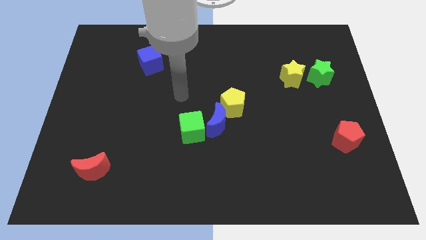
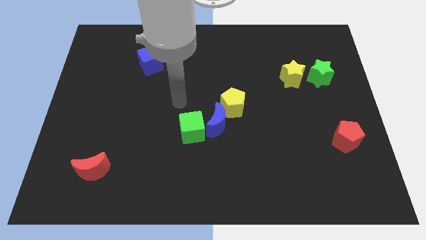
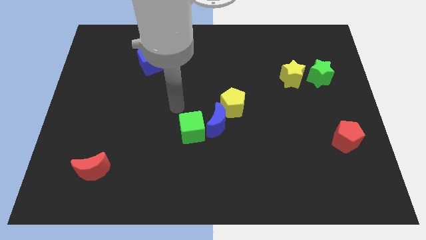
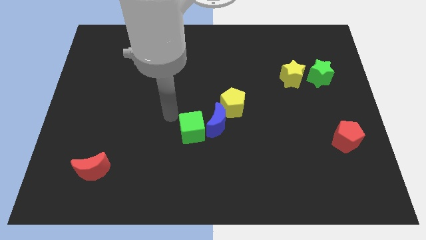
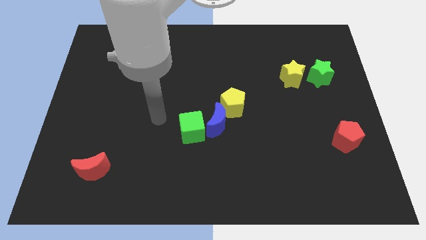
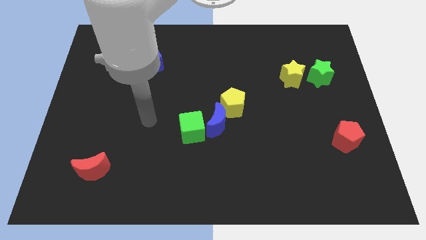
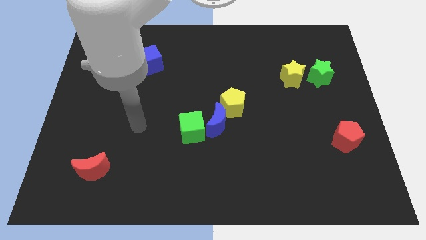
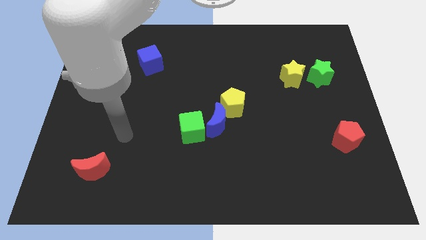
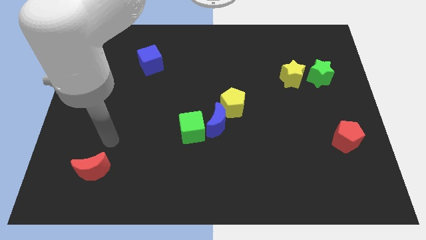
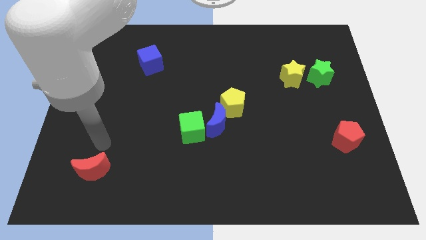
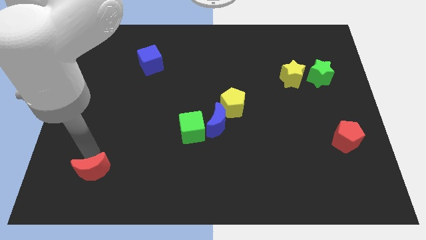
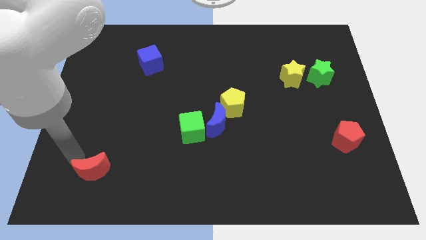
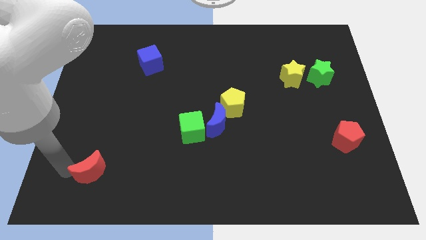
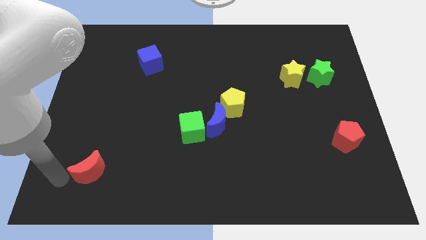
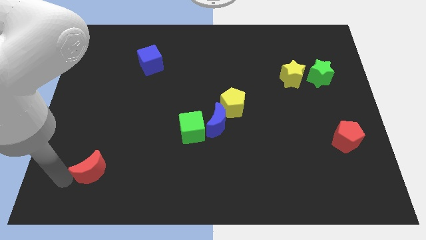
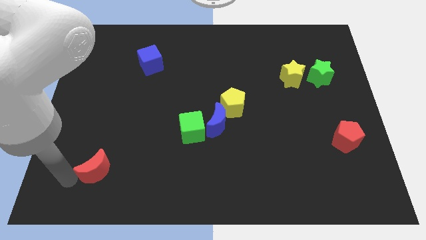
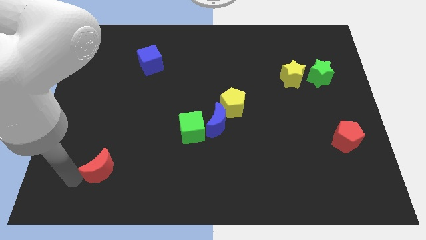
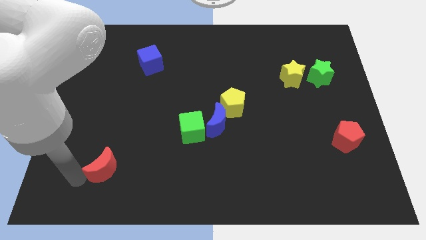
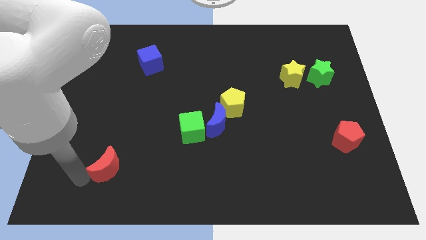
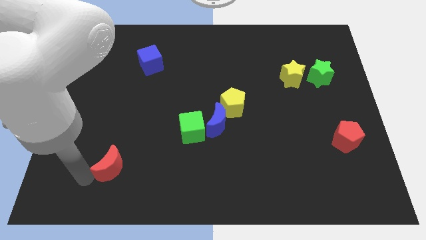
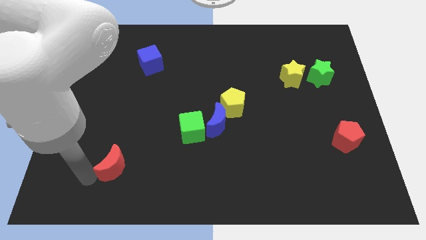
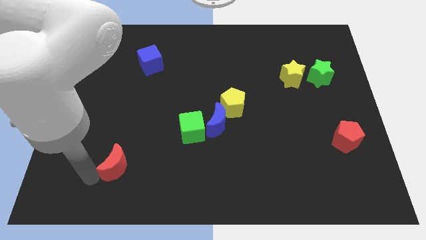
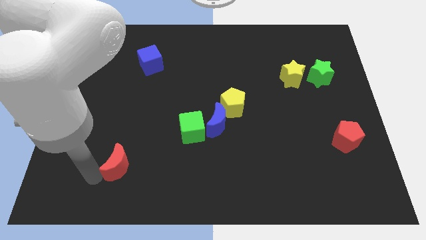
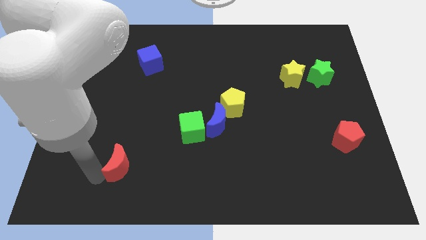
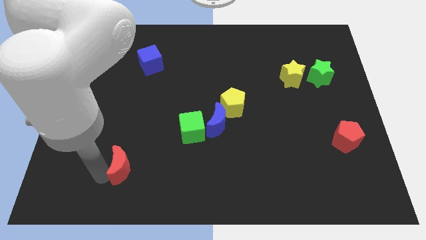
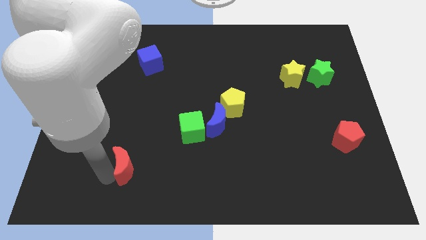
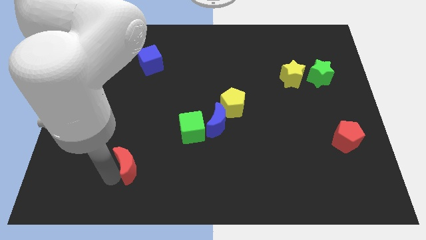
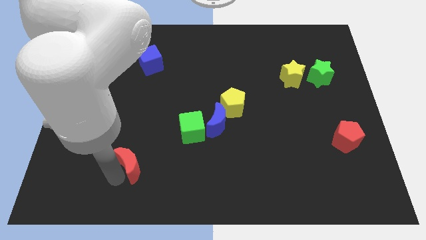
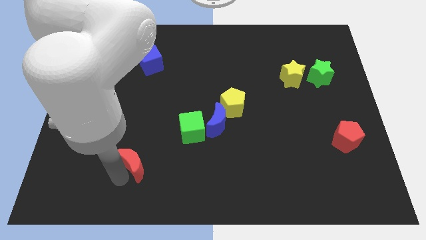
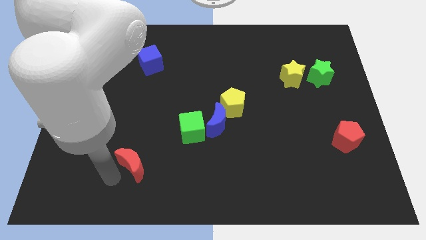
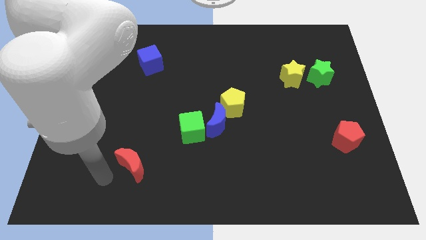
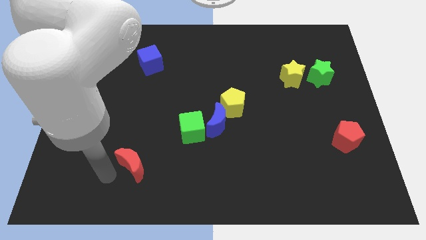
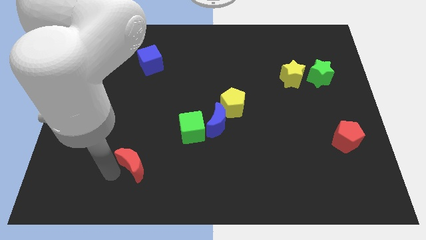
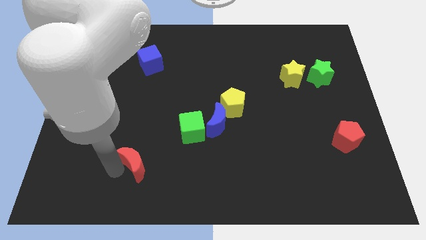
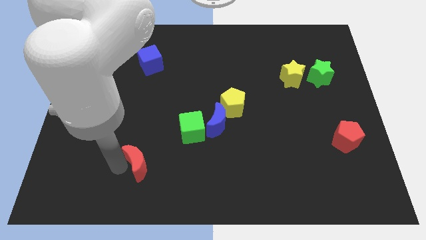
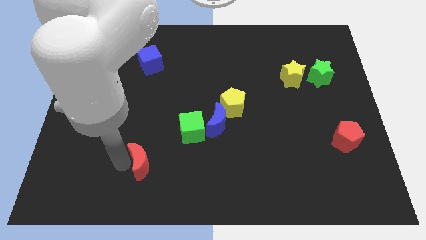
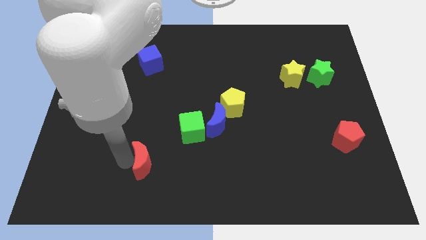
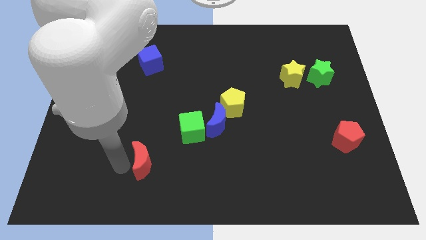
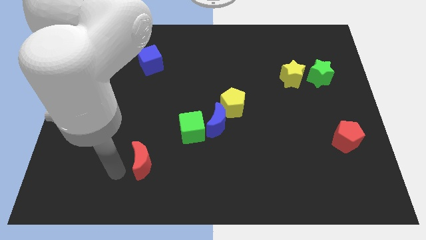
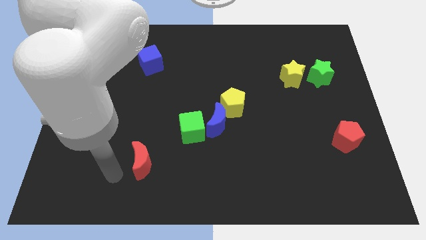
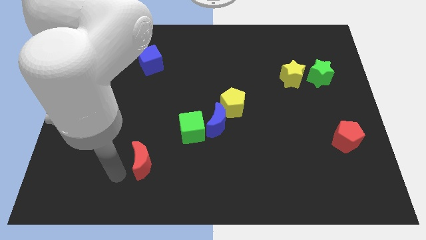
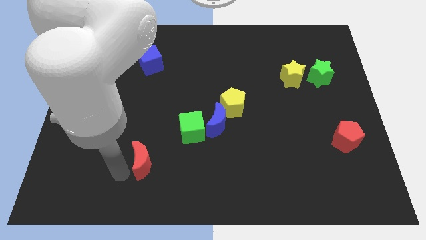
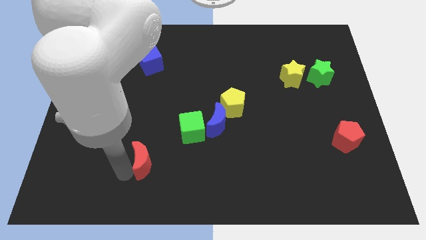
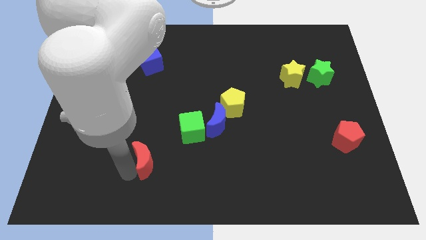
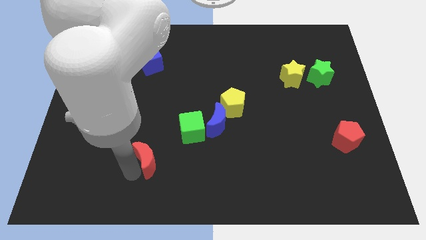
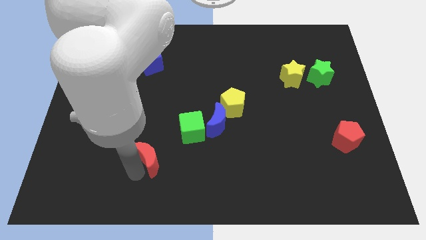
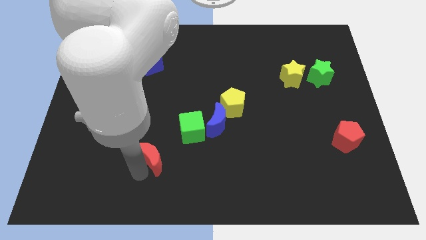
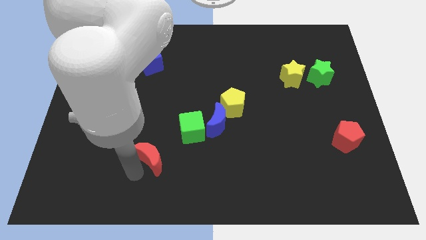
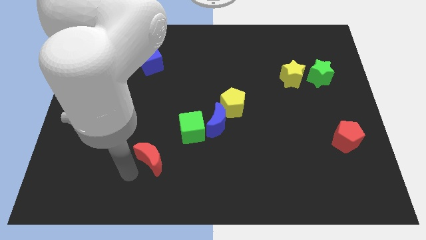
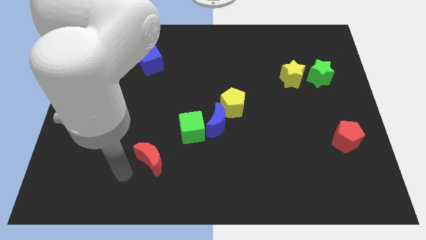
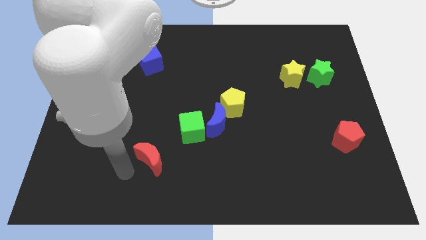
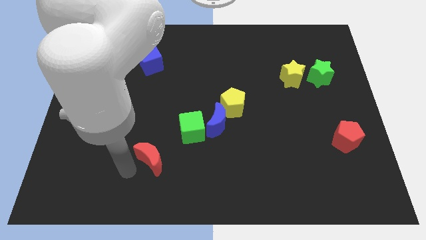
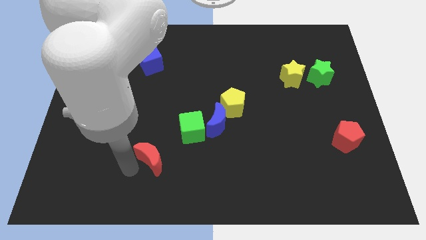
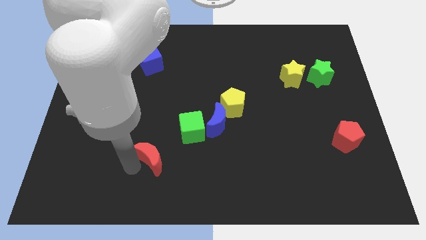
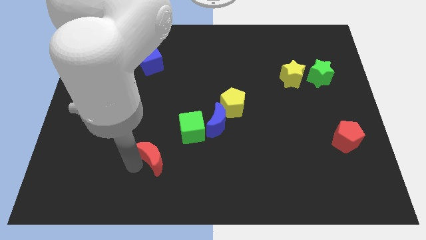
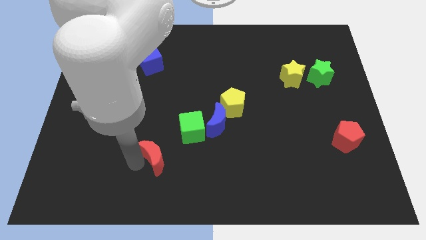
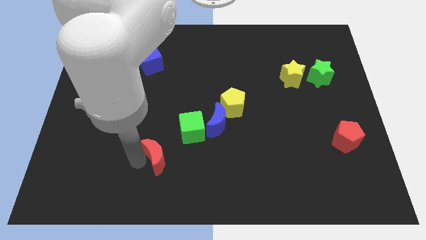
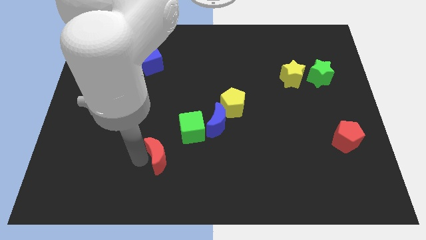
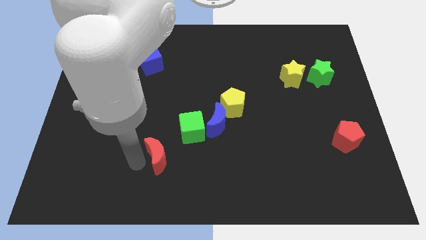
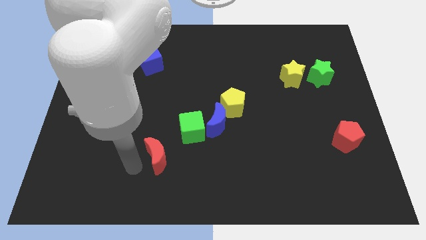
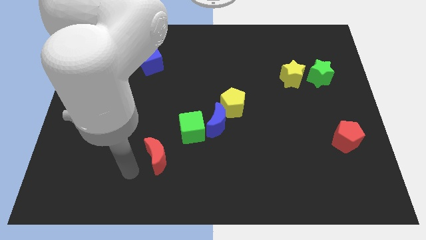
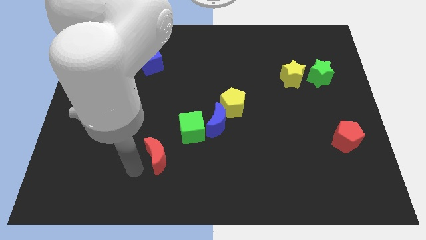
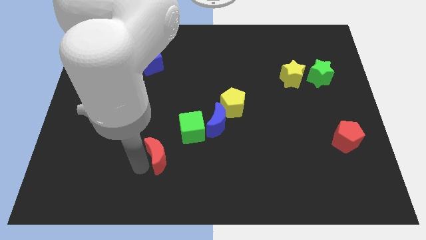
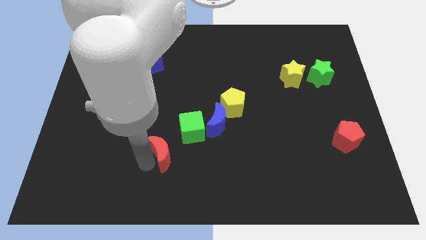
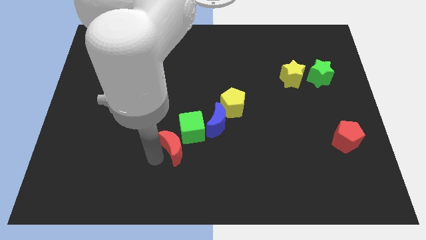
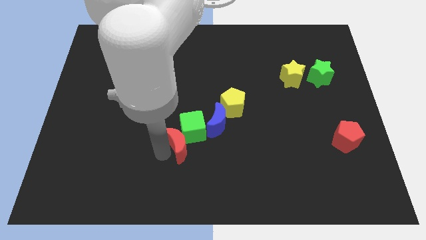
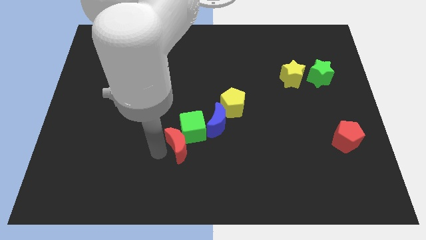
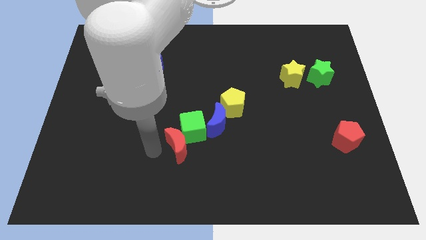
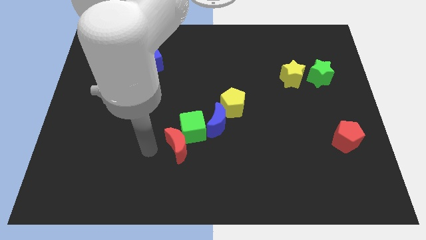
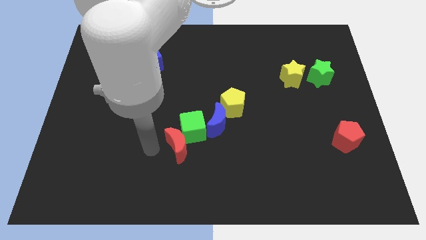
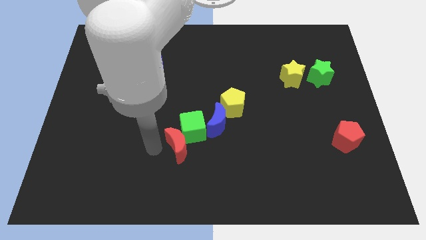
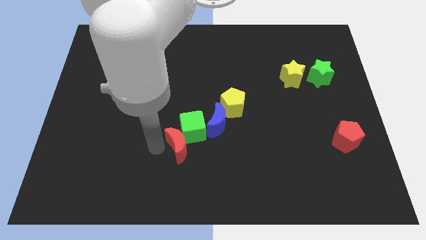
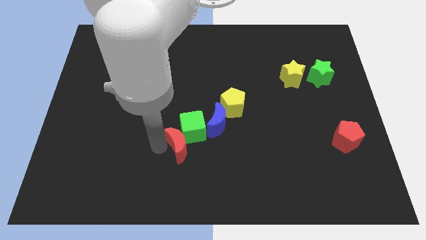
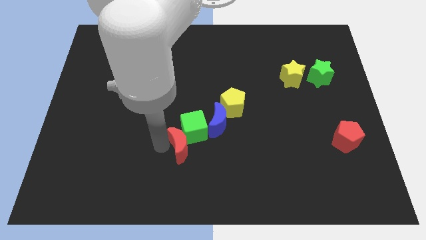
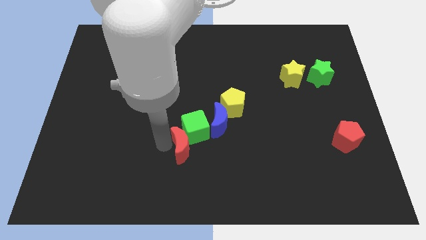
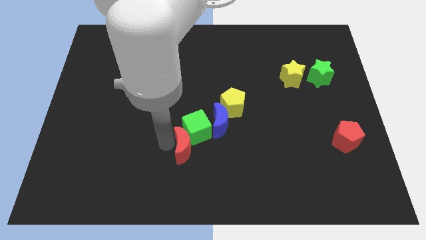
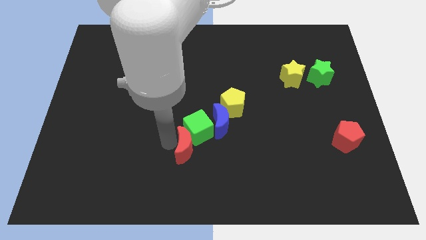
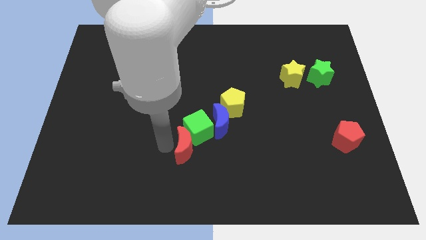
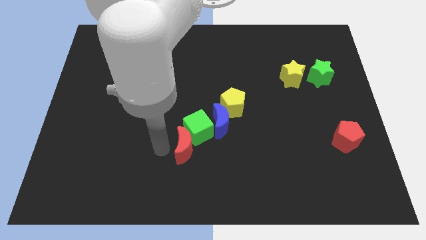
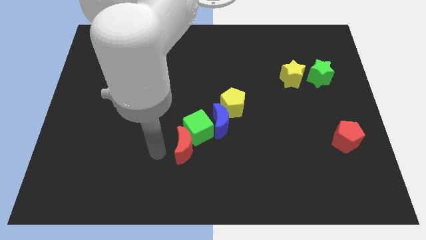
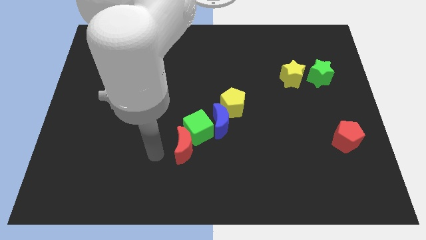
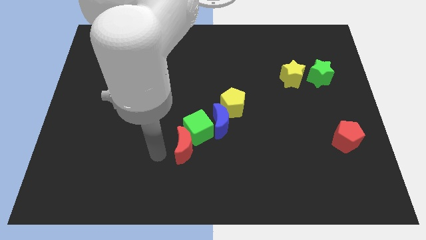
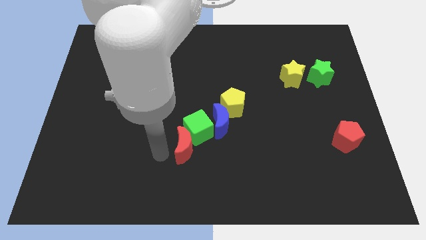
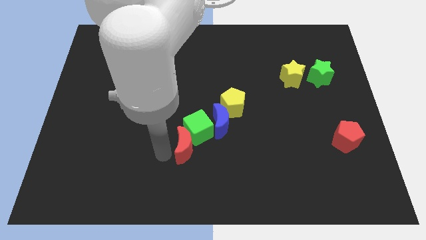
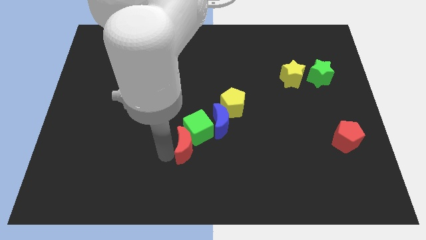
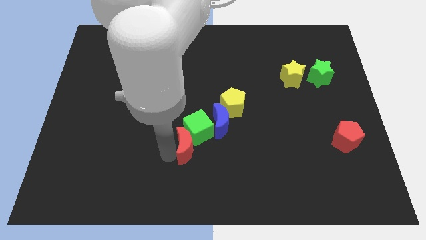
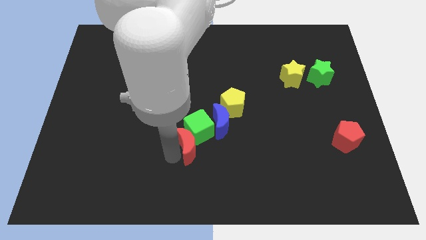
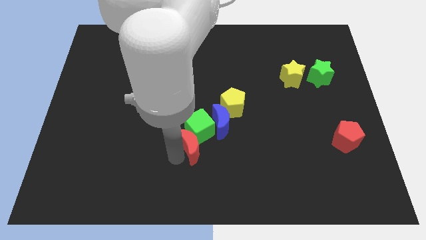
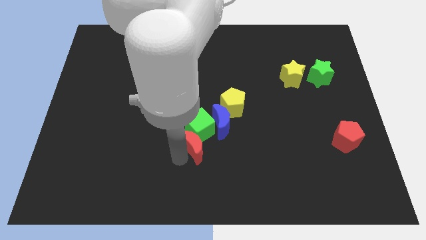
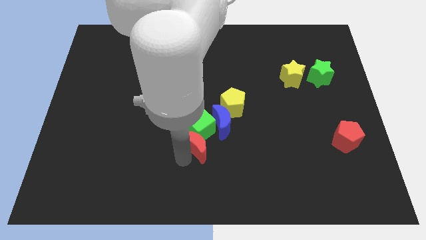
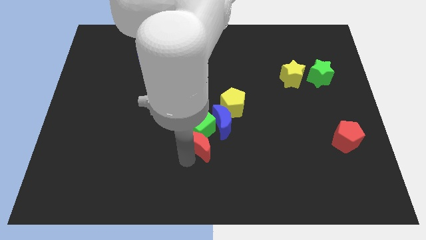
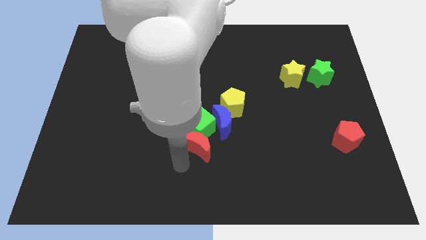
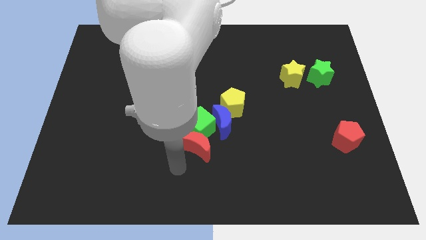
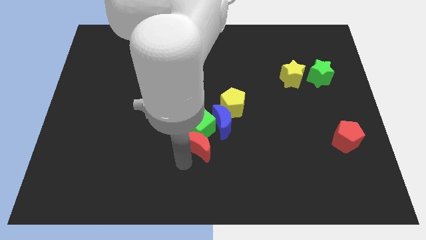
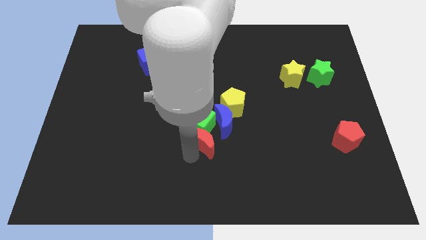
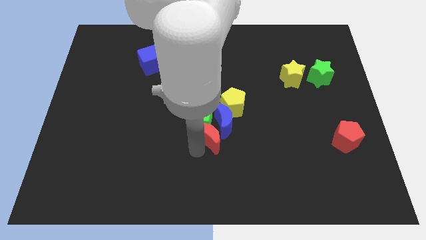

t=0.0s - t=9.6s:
put the red moon towards the blue moon
